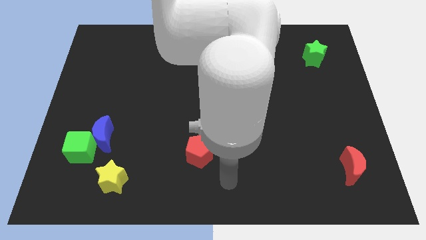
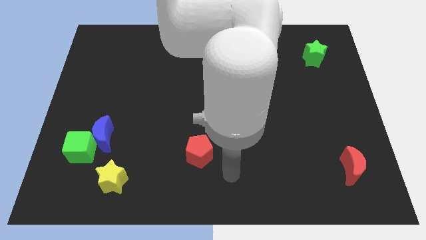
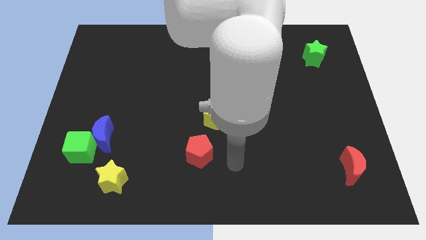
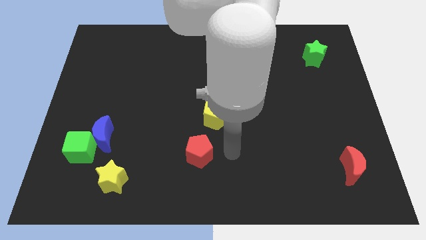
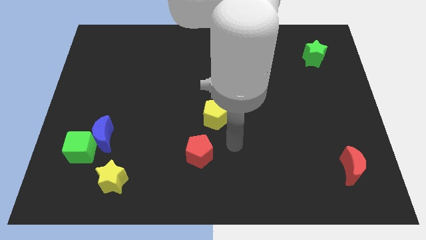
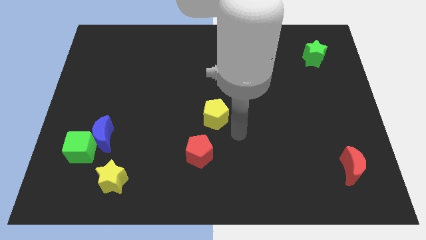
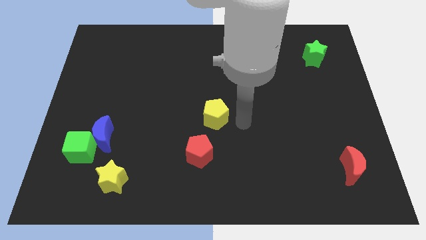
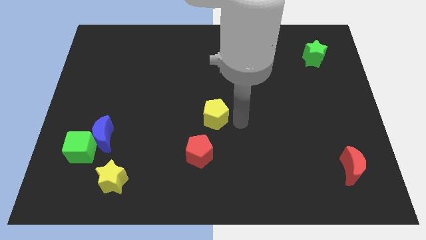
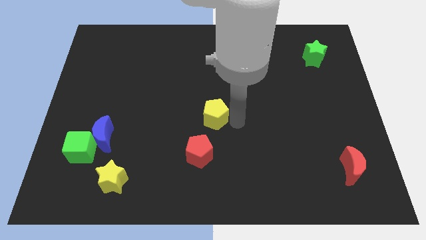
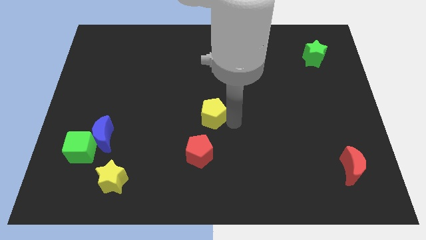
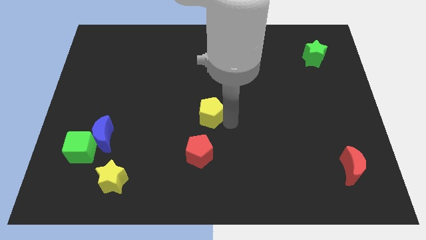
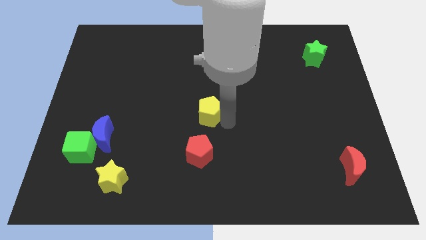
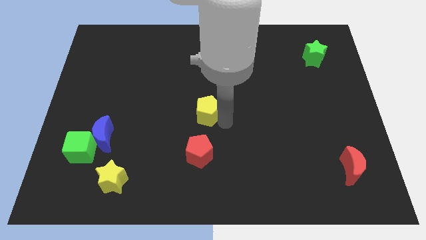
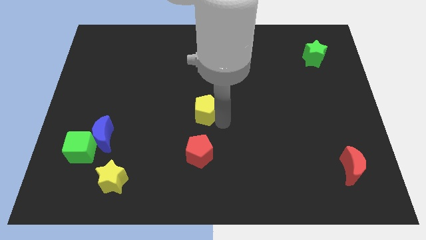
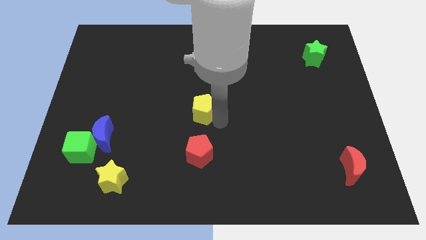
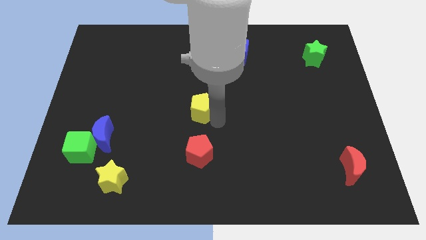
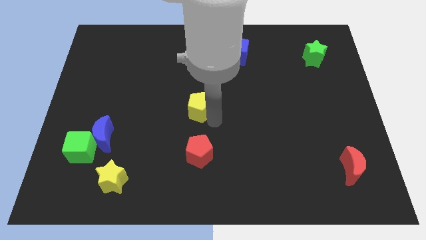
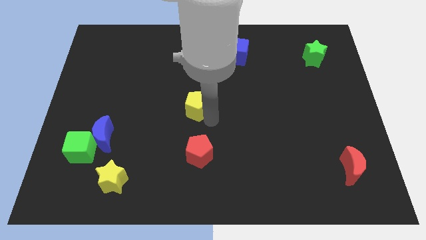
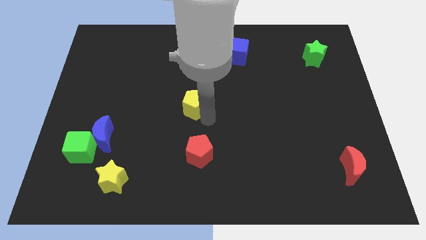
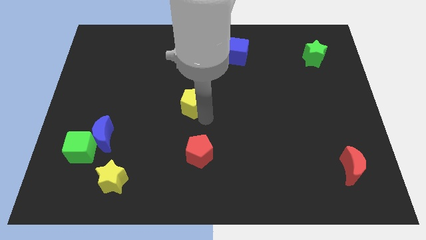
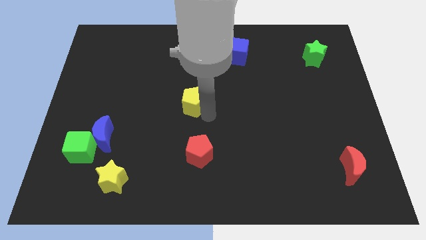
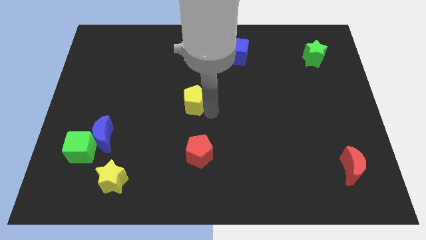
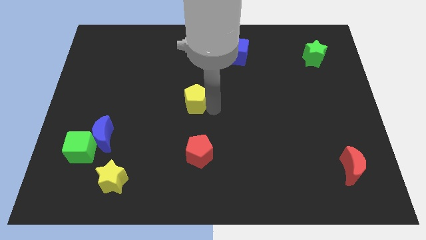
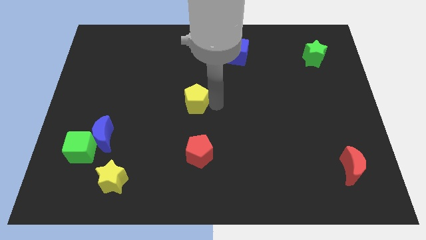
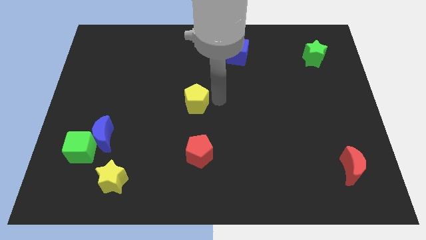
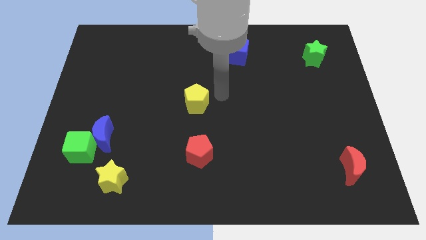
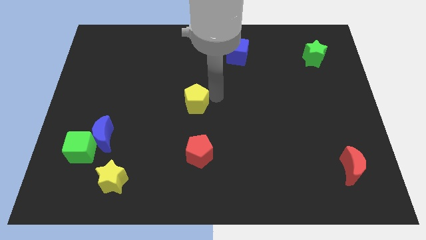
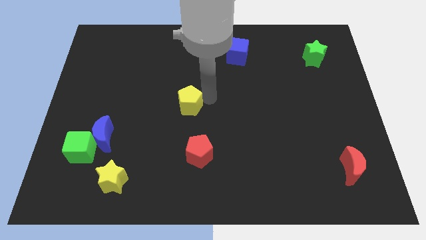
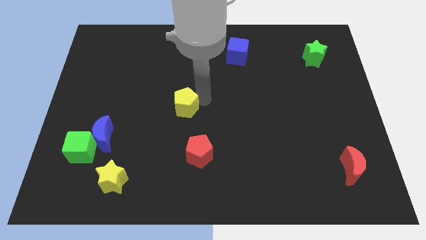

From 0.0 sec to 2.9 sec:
slightly move the yellow pentagon left

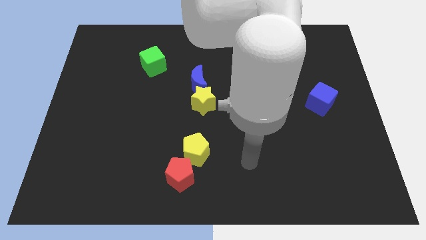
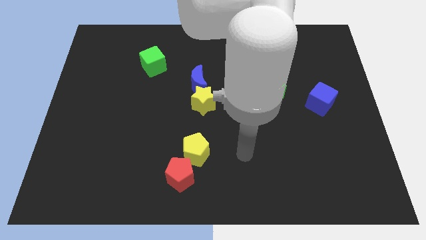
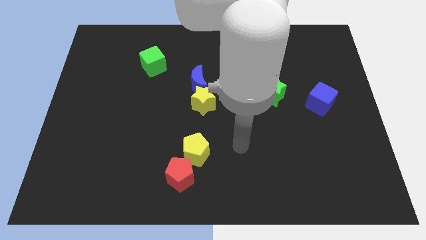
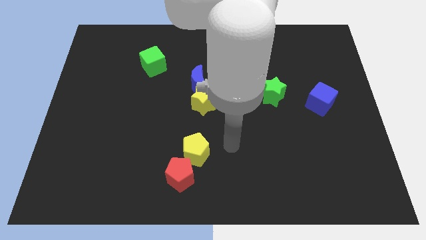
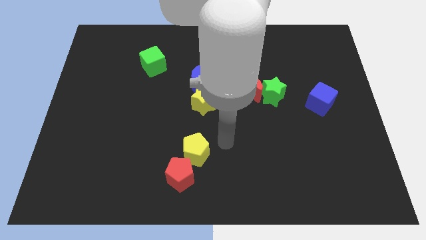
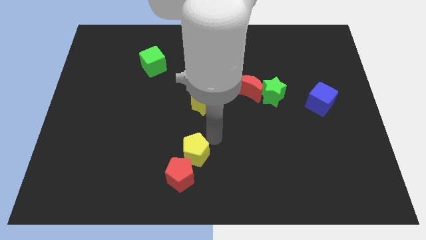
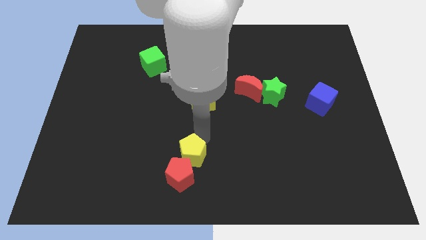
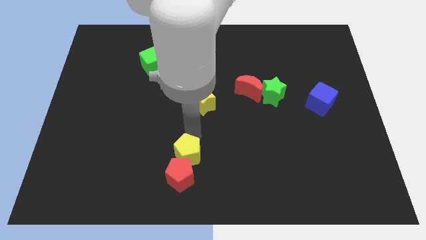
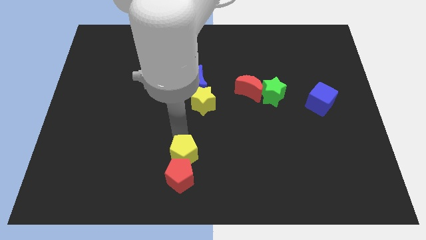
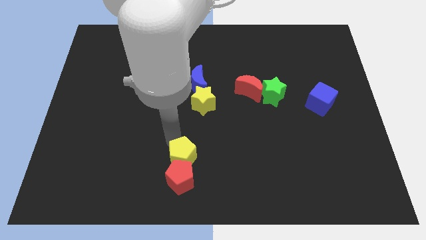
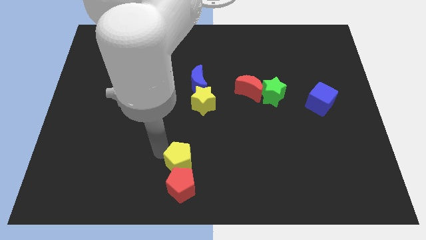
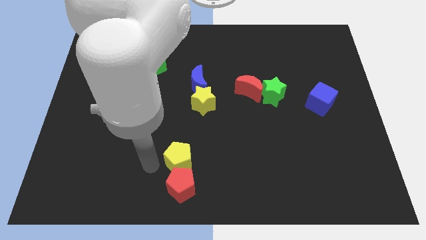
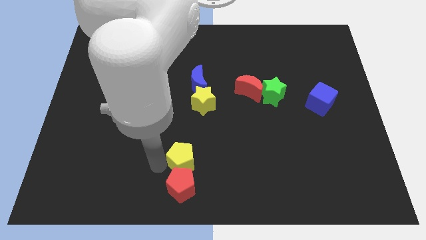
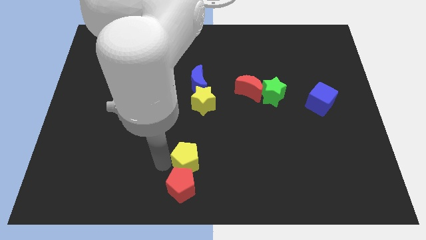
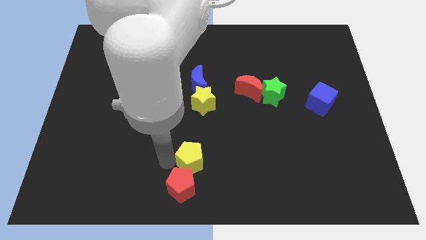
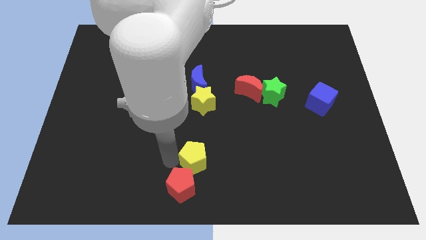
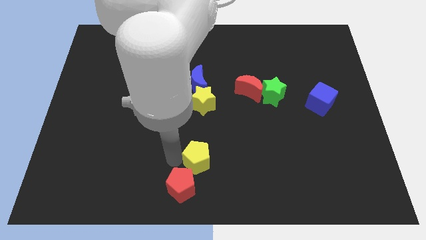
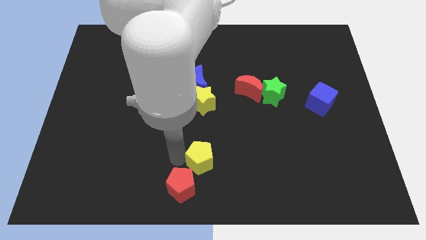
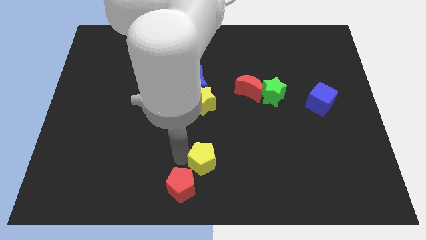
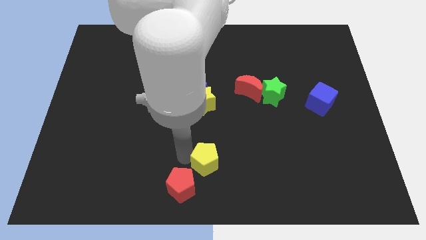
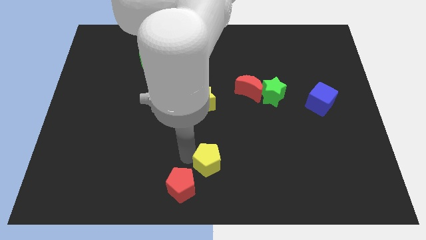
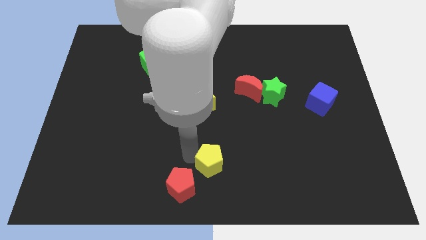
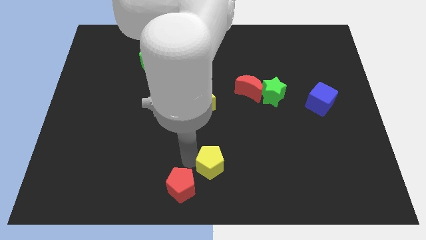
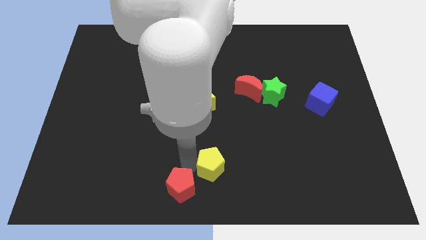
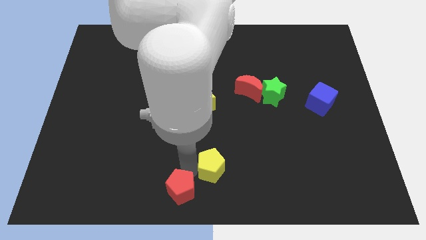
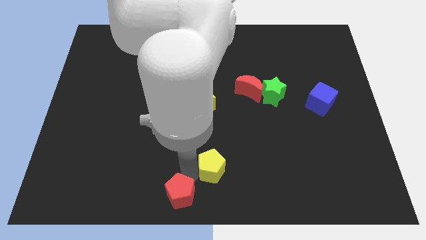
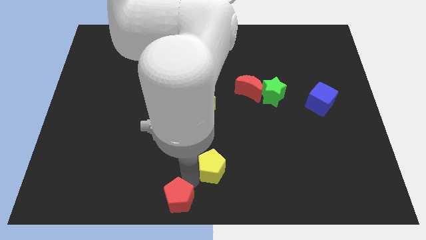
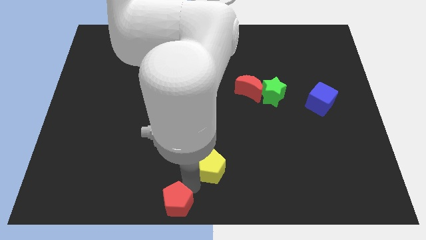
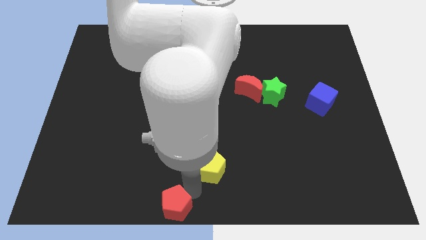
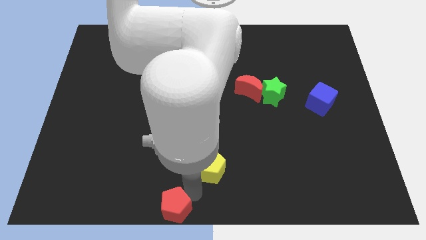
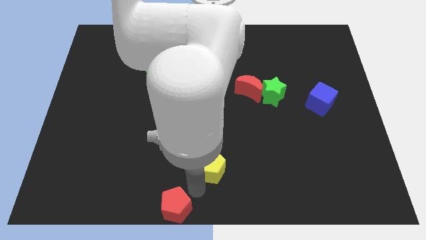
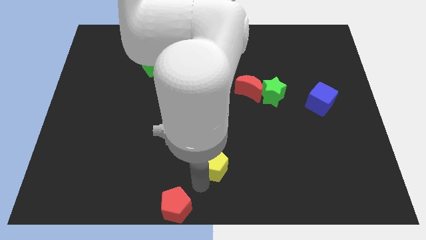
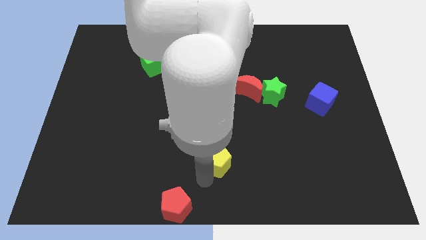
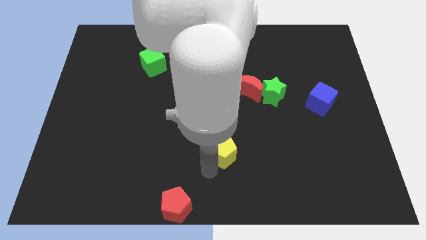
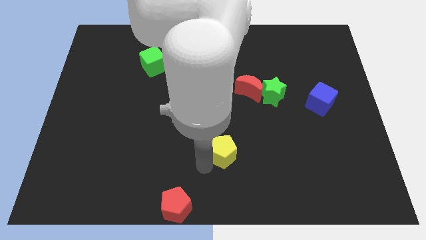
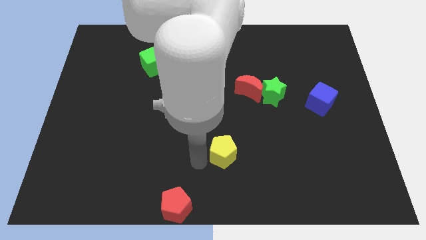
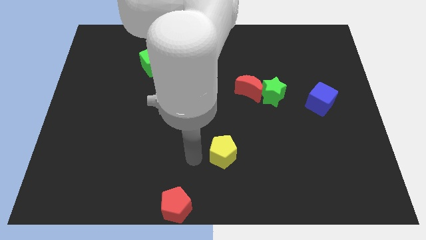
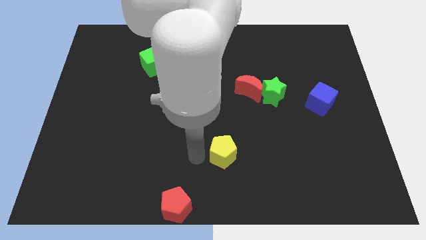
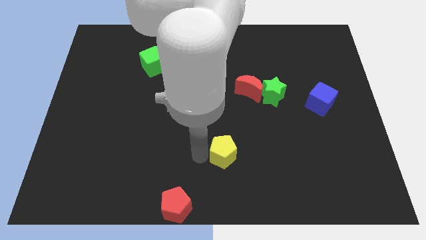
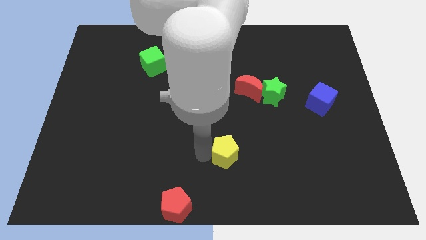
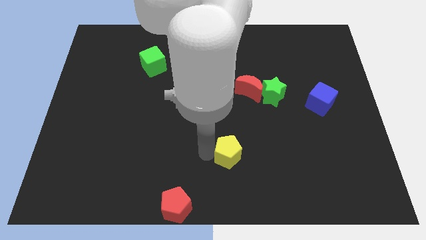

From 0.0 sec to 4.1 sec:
slide the yellow pentagon to the right a little

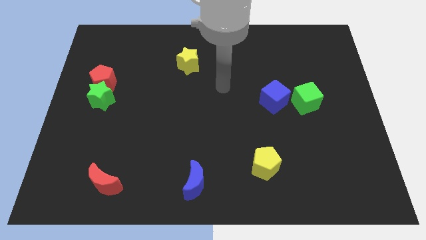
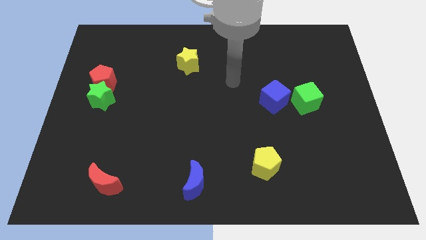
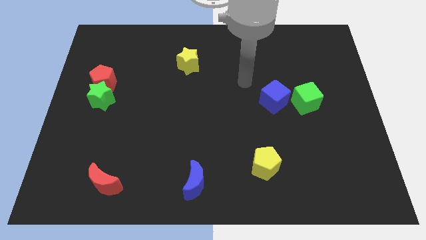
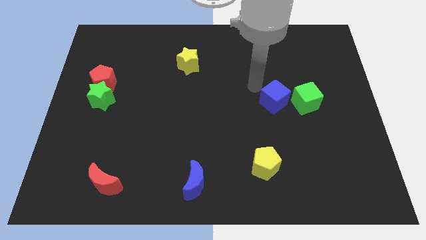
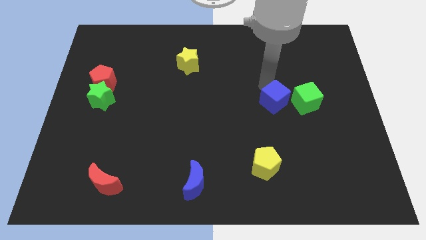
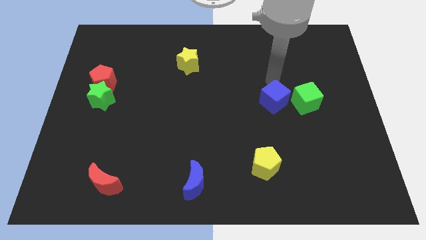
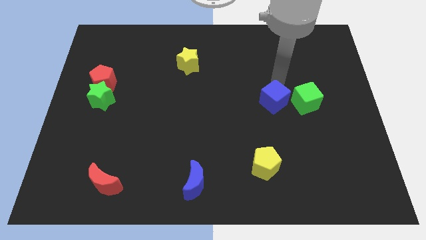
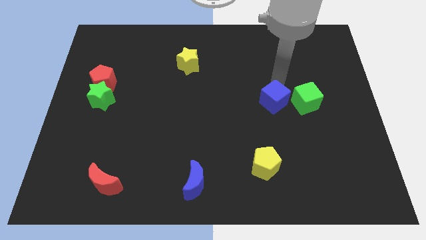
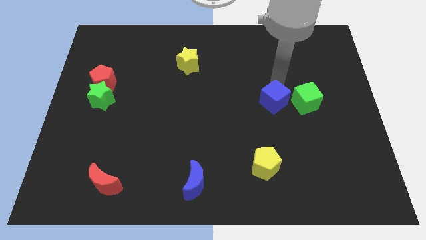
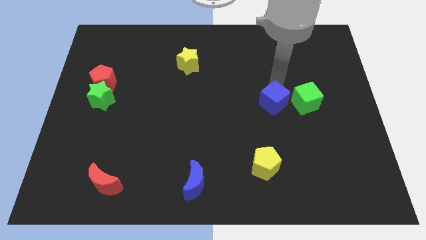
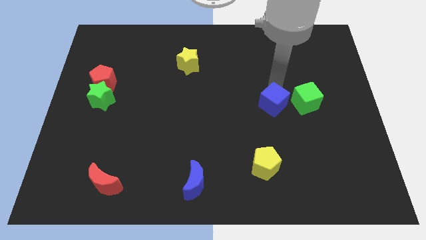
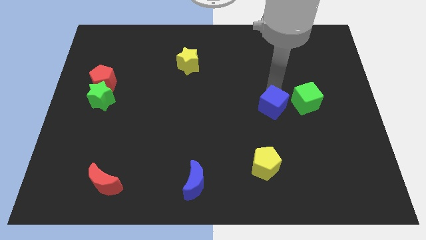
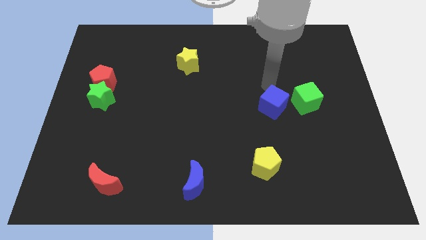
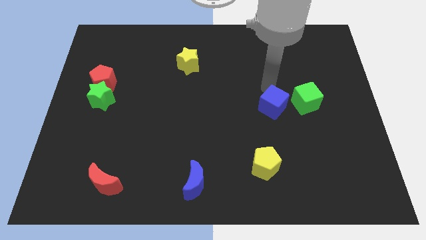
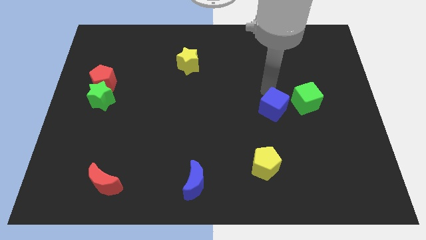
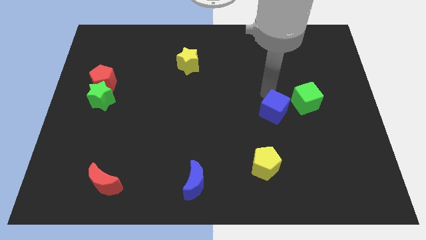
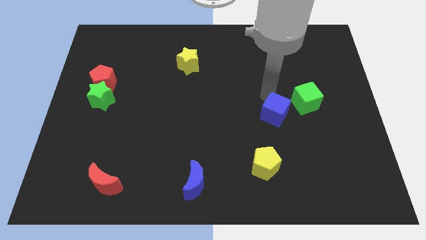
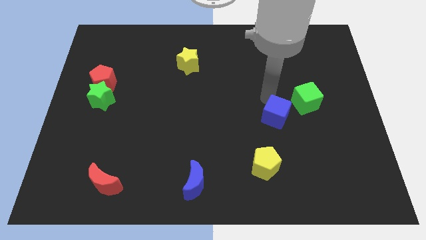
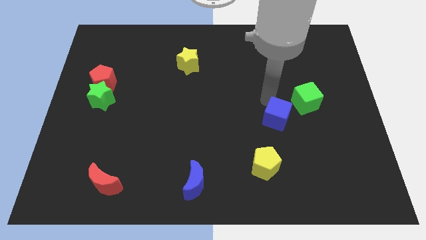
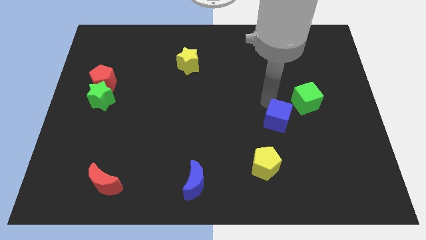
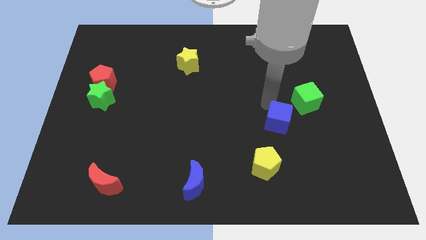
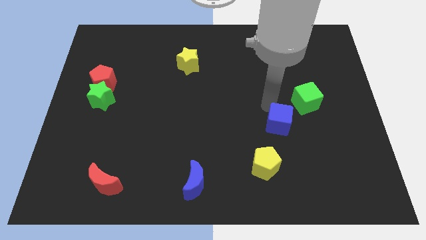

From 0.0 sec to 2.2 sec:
slide the blue cube down a little
